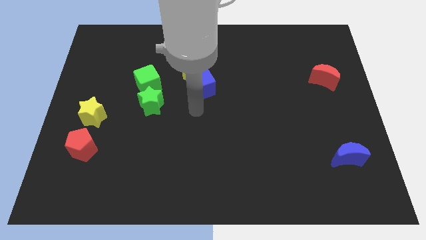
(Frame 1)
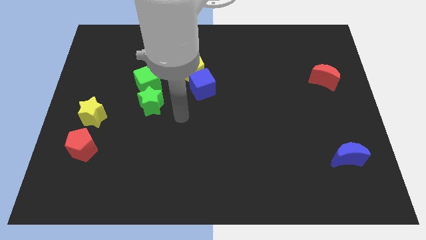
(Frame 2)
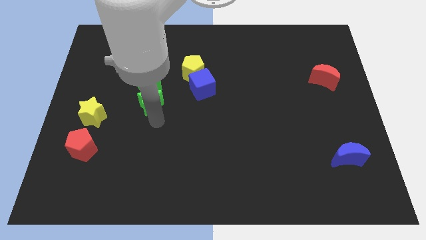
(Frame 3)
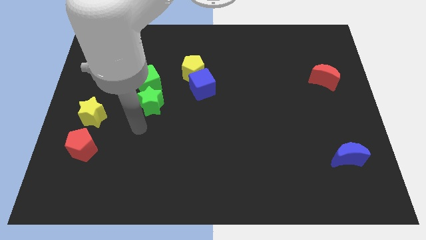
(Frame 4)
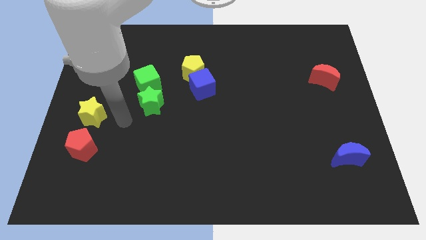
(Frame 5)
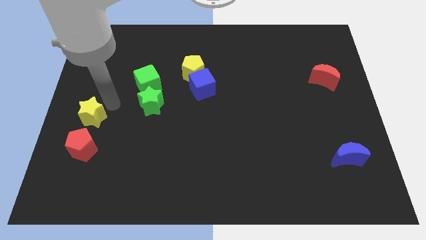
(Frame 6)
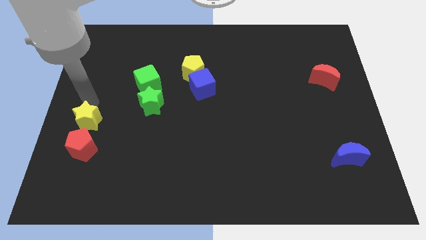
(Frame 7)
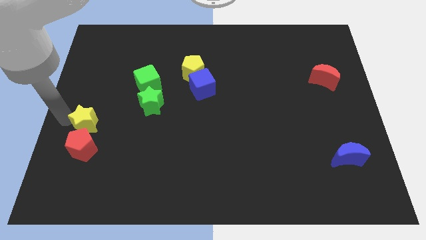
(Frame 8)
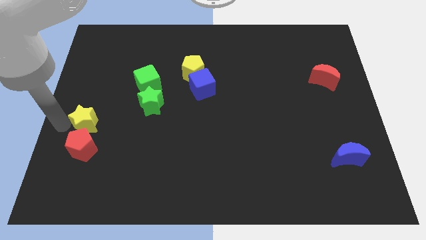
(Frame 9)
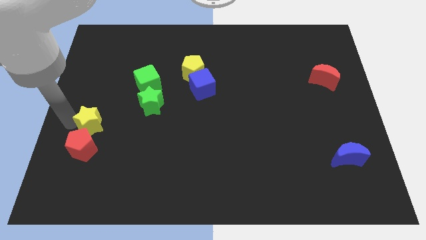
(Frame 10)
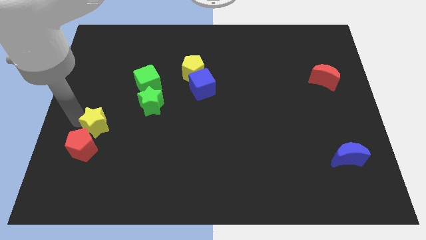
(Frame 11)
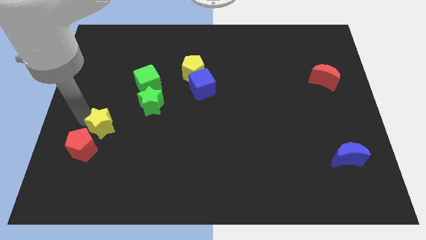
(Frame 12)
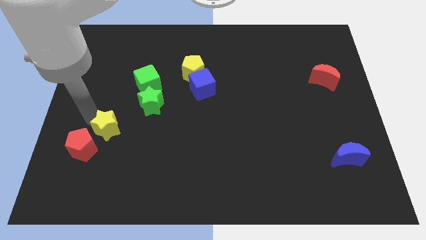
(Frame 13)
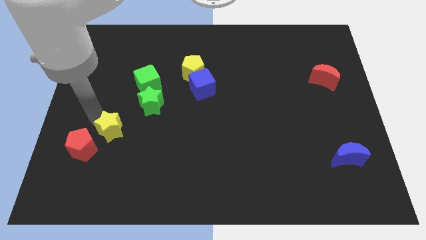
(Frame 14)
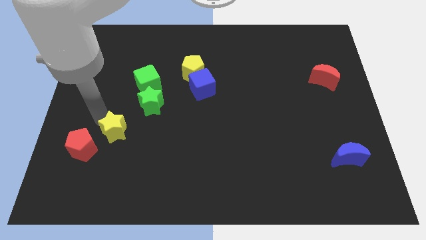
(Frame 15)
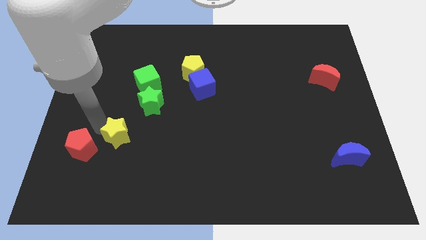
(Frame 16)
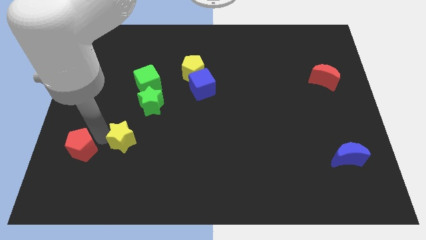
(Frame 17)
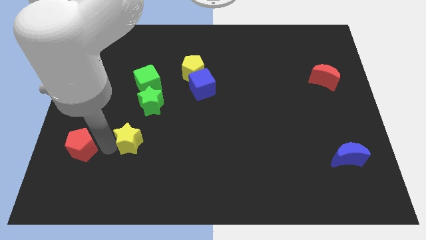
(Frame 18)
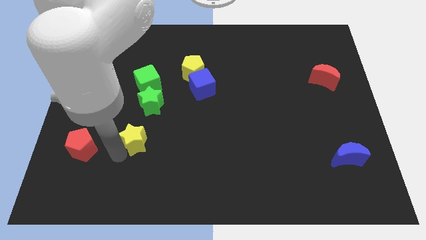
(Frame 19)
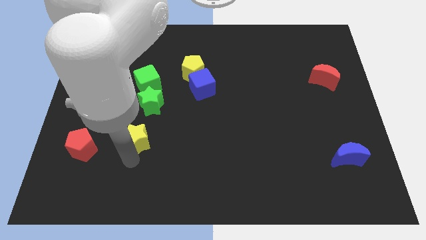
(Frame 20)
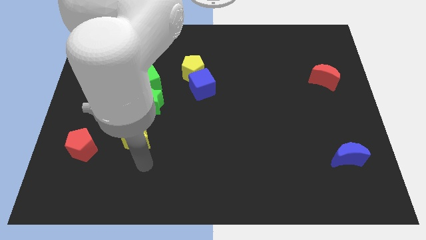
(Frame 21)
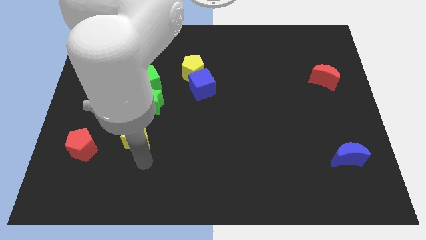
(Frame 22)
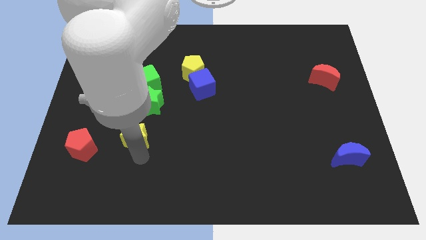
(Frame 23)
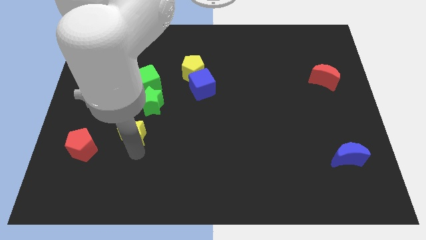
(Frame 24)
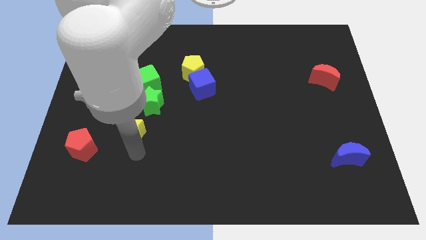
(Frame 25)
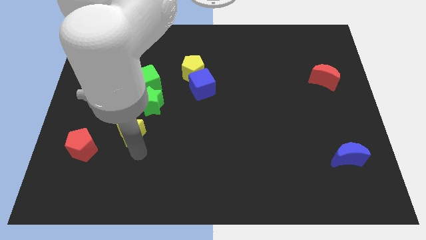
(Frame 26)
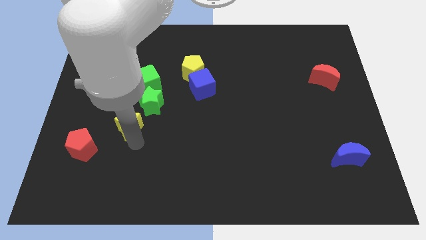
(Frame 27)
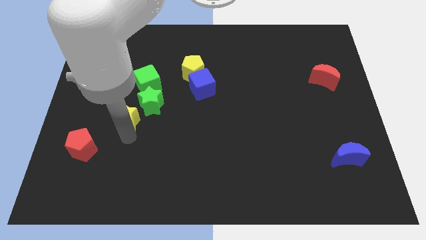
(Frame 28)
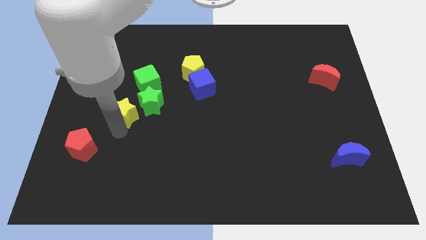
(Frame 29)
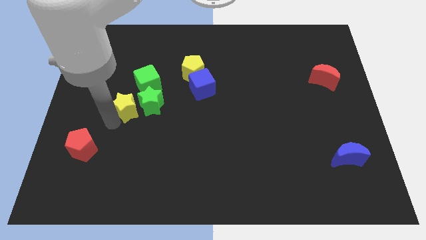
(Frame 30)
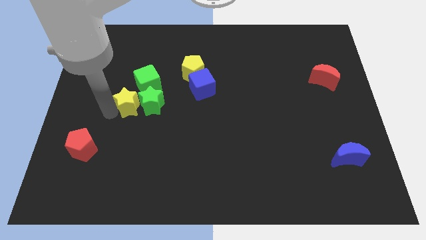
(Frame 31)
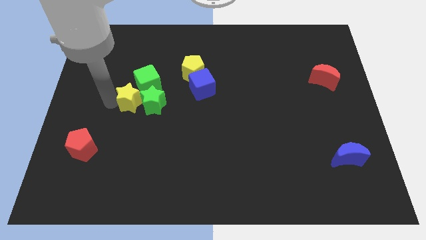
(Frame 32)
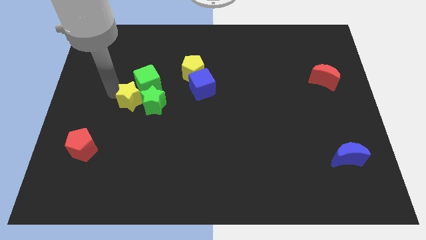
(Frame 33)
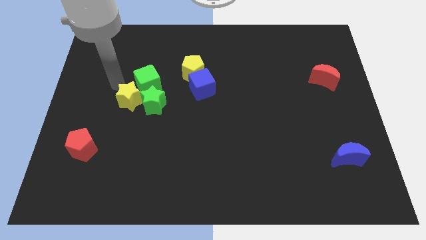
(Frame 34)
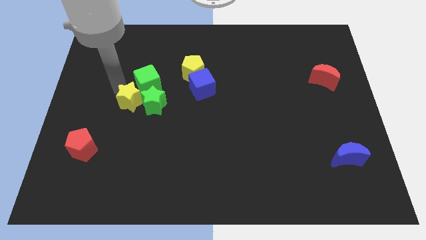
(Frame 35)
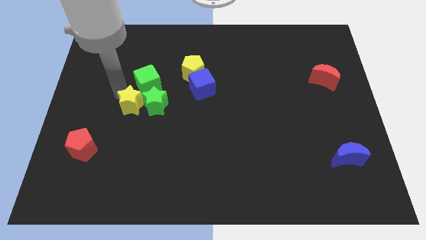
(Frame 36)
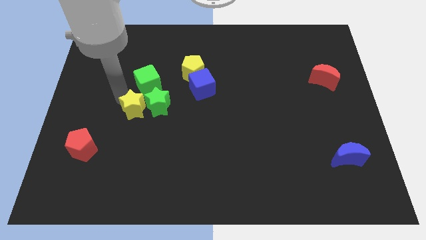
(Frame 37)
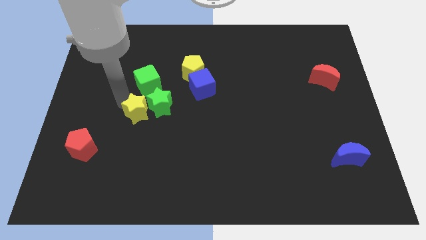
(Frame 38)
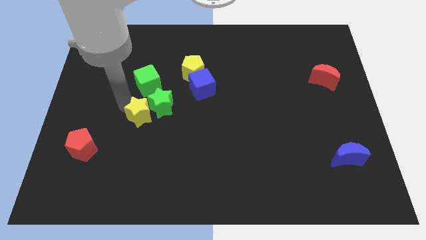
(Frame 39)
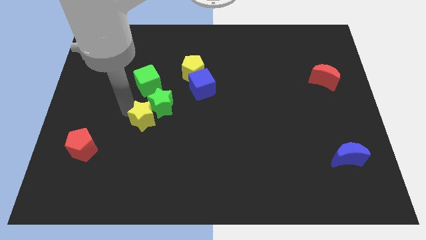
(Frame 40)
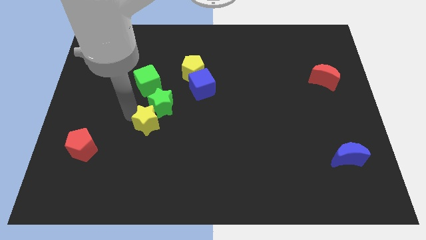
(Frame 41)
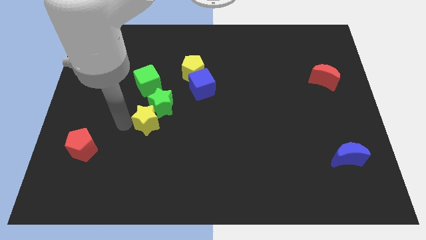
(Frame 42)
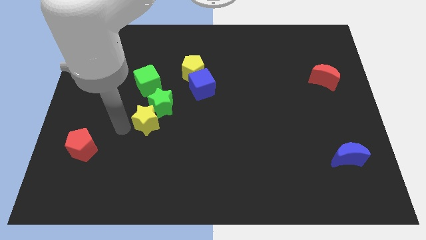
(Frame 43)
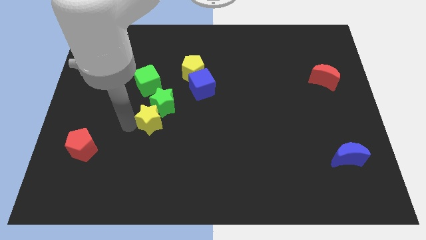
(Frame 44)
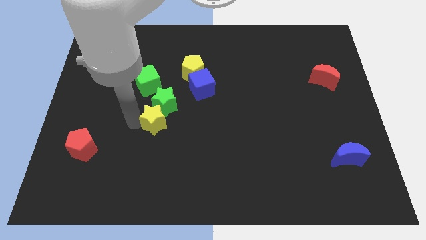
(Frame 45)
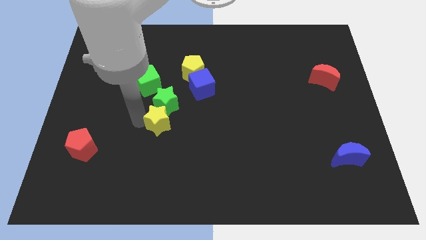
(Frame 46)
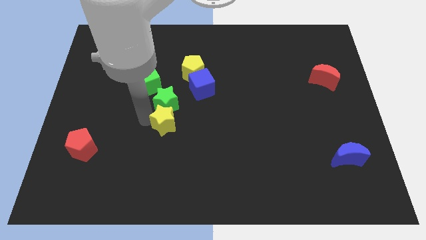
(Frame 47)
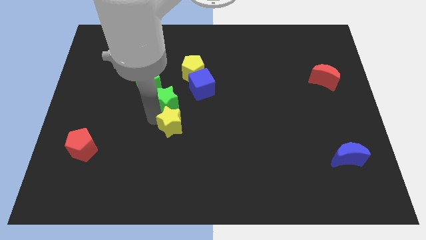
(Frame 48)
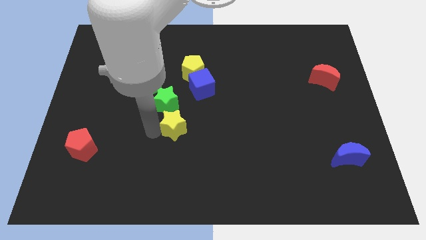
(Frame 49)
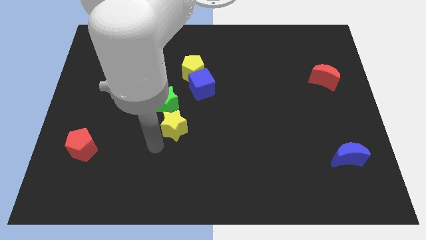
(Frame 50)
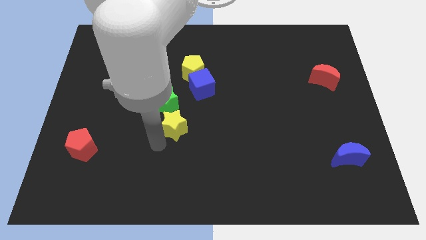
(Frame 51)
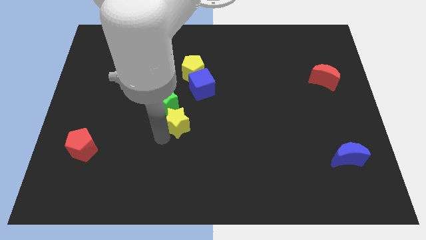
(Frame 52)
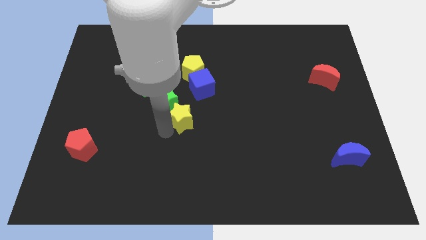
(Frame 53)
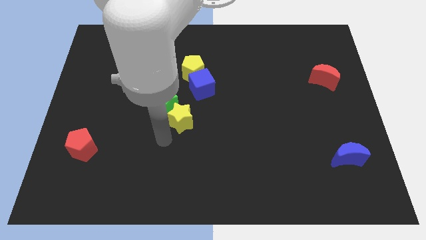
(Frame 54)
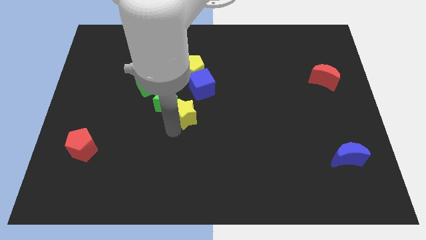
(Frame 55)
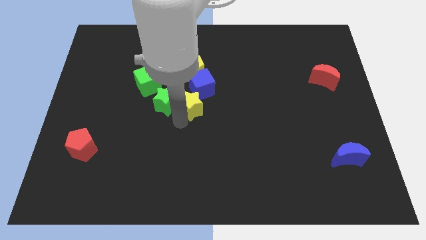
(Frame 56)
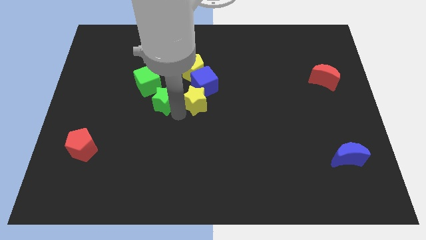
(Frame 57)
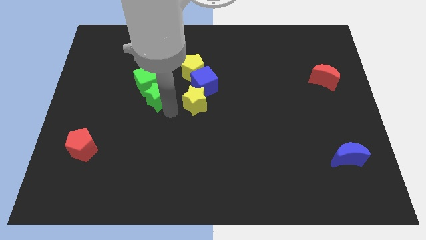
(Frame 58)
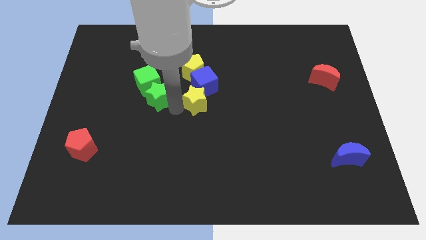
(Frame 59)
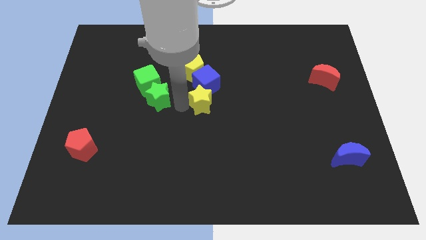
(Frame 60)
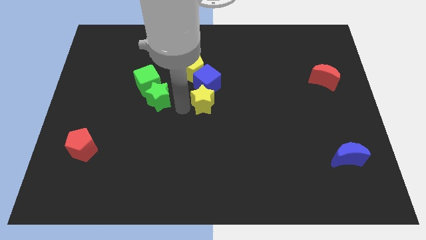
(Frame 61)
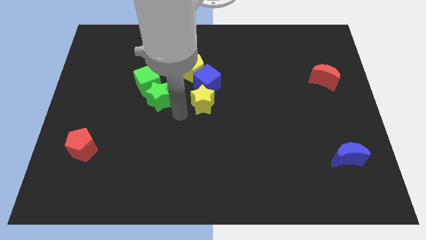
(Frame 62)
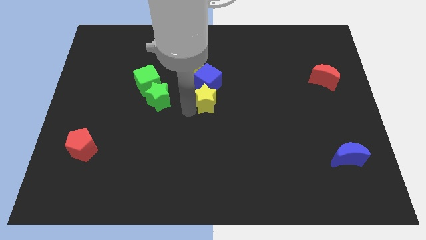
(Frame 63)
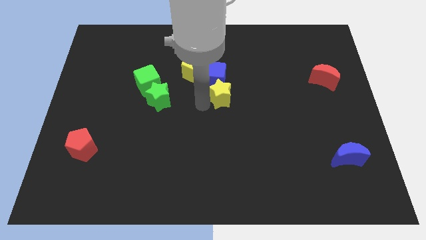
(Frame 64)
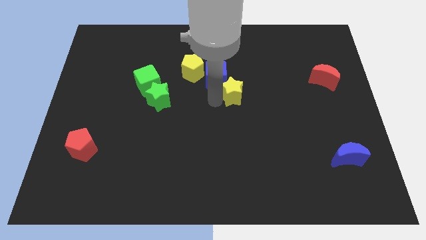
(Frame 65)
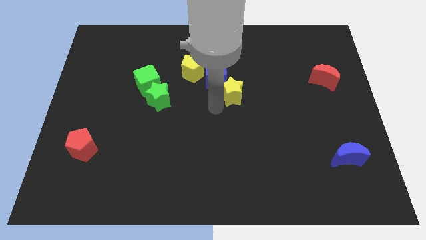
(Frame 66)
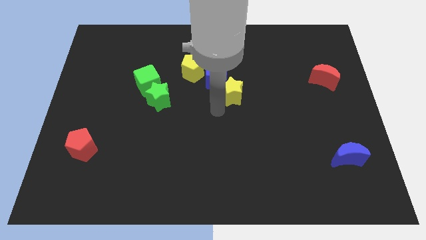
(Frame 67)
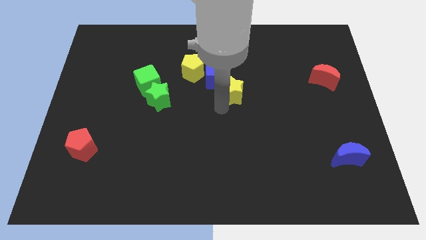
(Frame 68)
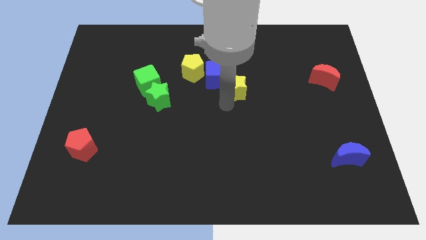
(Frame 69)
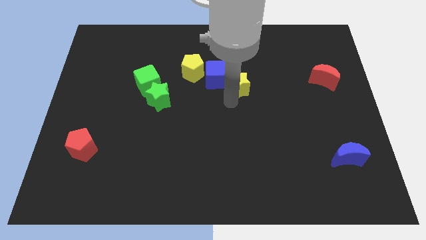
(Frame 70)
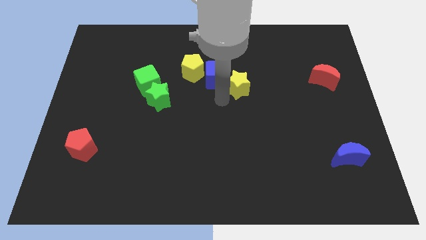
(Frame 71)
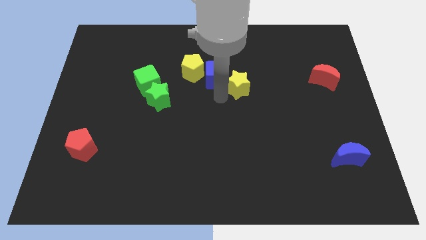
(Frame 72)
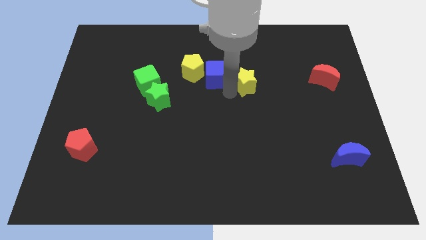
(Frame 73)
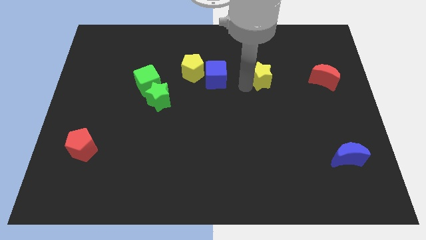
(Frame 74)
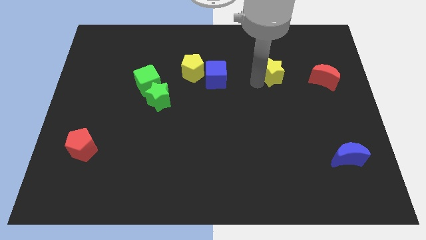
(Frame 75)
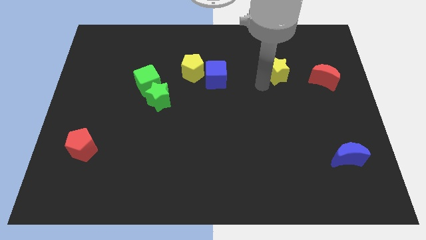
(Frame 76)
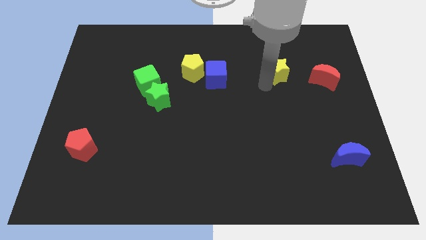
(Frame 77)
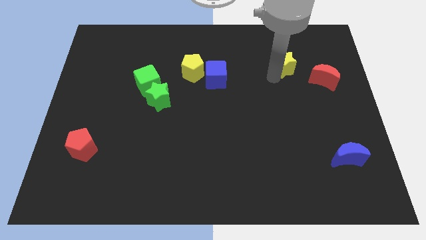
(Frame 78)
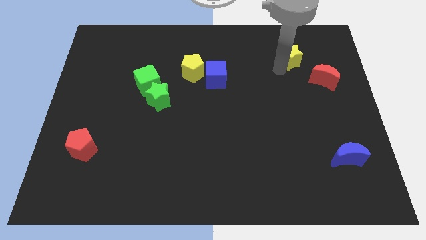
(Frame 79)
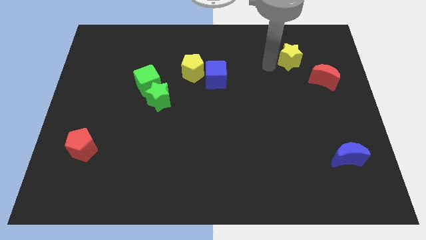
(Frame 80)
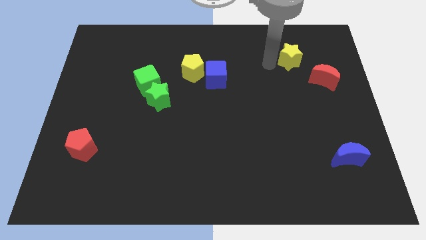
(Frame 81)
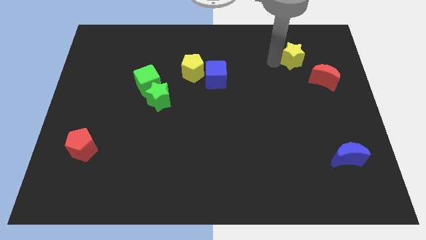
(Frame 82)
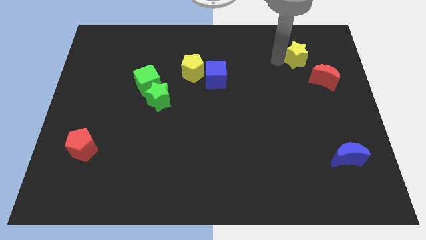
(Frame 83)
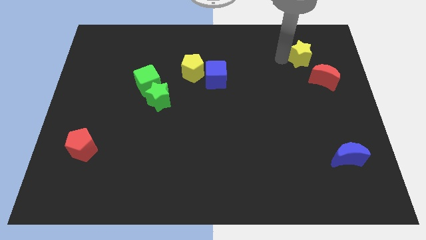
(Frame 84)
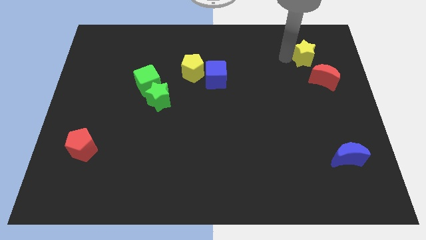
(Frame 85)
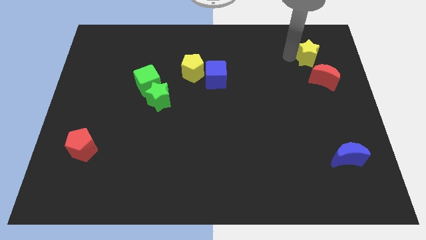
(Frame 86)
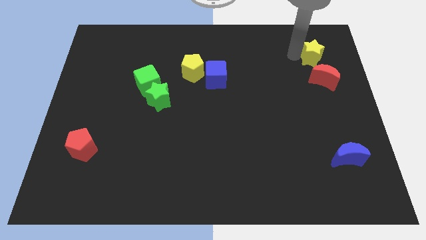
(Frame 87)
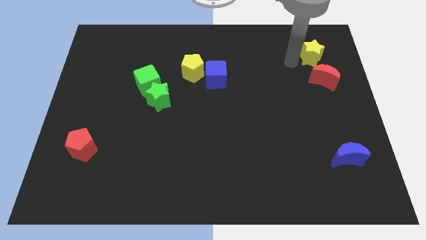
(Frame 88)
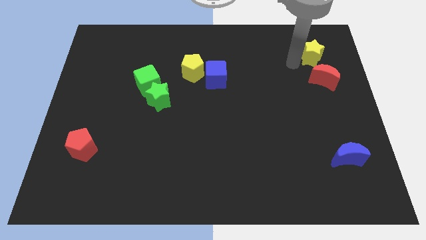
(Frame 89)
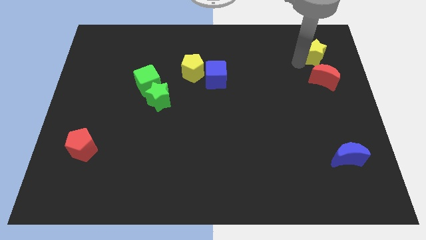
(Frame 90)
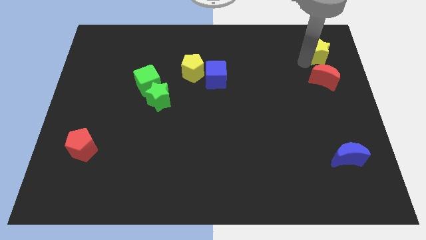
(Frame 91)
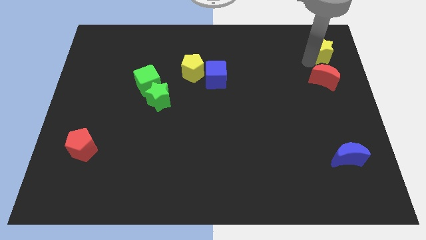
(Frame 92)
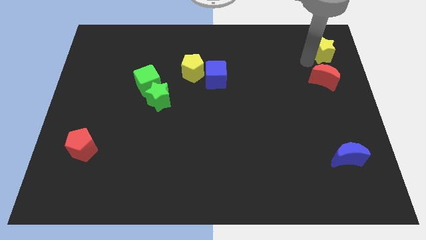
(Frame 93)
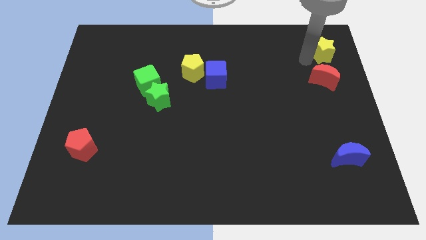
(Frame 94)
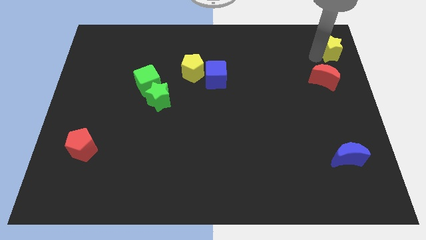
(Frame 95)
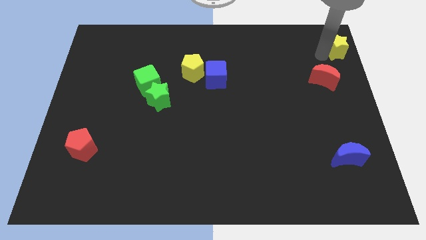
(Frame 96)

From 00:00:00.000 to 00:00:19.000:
move the yellow star to the upper right corner
